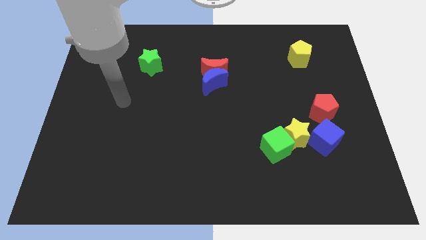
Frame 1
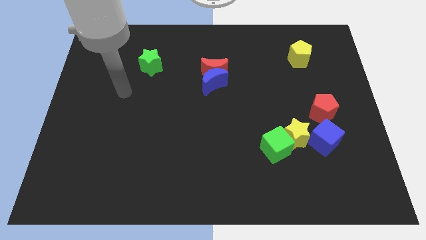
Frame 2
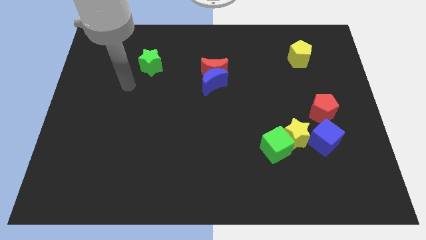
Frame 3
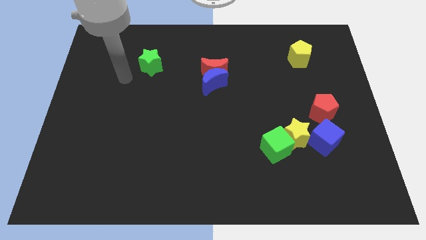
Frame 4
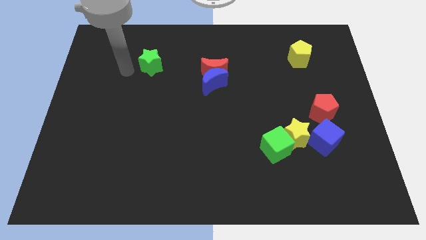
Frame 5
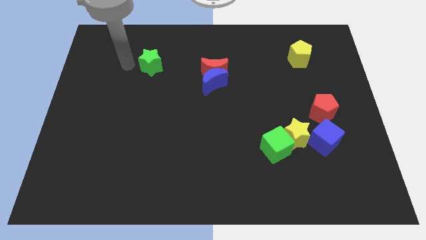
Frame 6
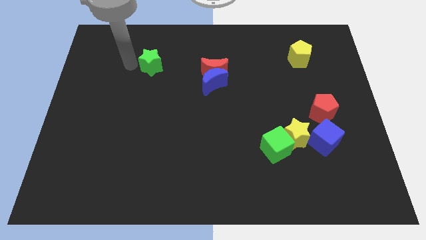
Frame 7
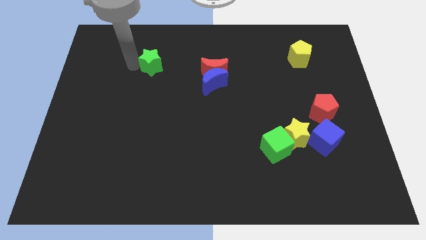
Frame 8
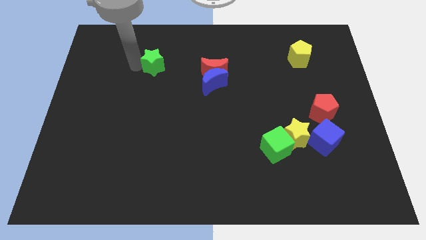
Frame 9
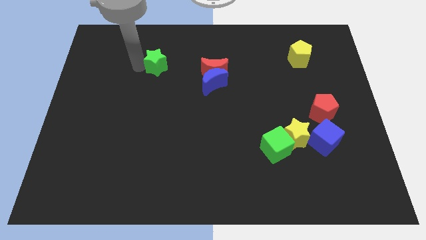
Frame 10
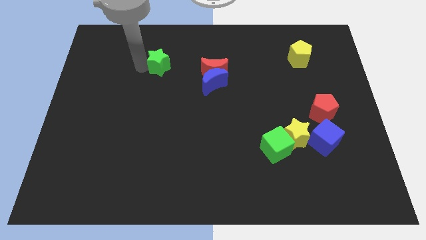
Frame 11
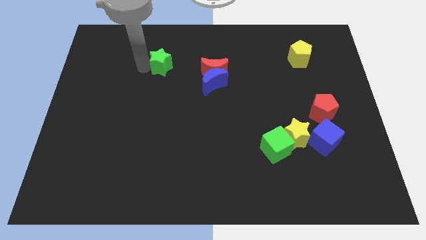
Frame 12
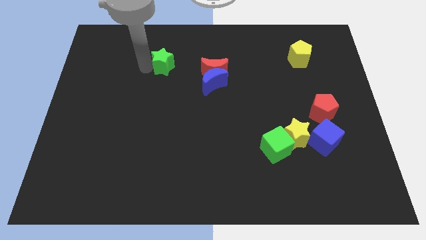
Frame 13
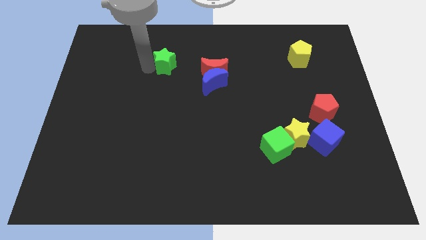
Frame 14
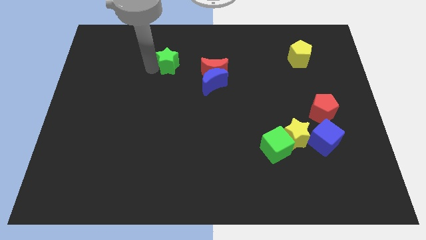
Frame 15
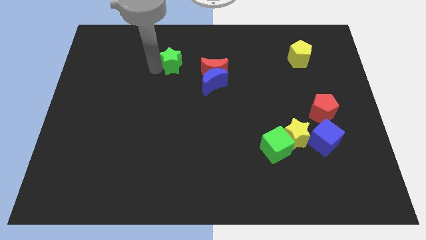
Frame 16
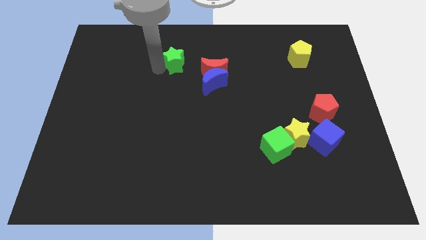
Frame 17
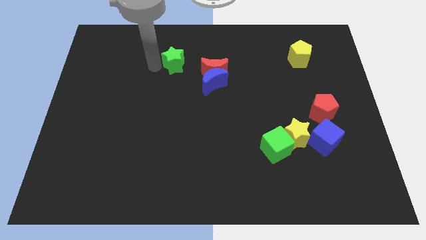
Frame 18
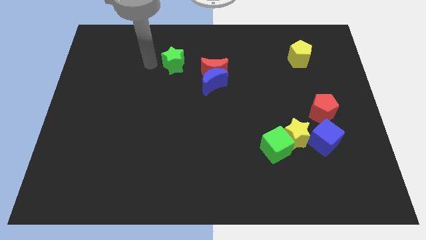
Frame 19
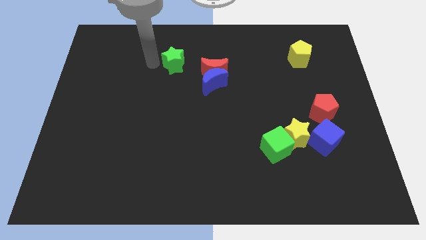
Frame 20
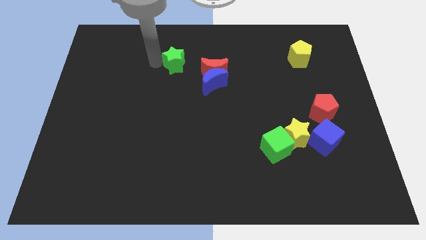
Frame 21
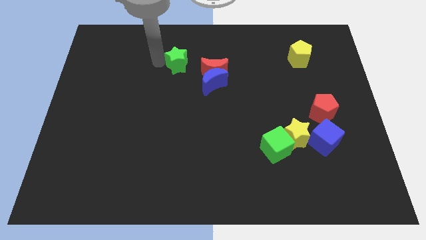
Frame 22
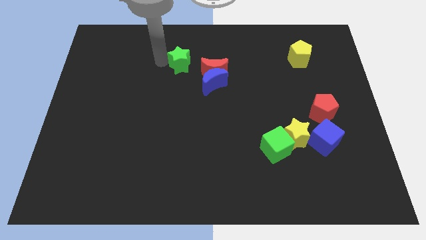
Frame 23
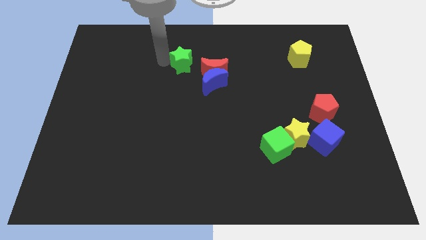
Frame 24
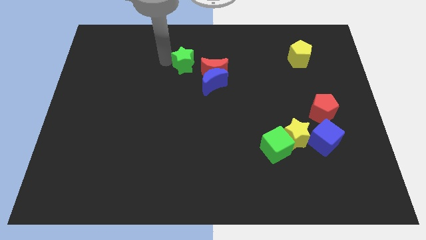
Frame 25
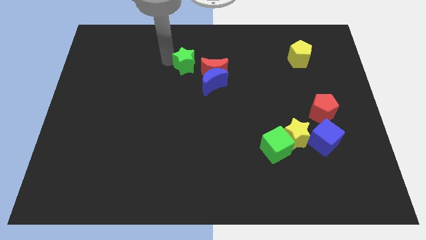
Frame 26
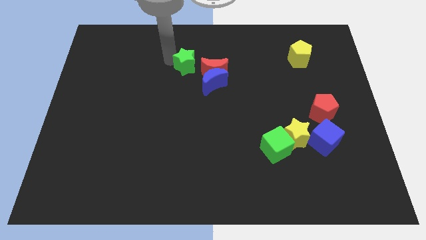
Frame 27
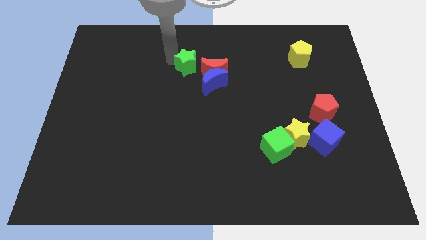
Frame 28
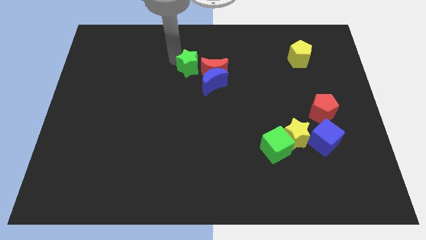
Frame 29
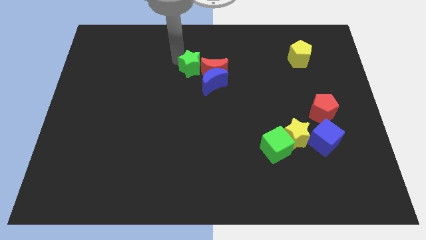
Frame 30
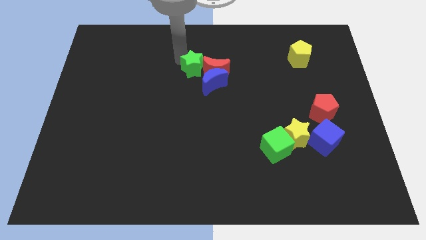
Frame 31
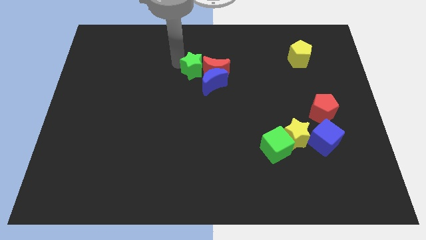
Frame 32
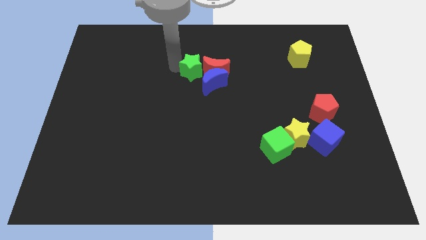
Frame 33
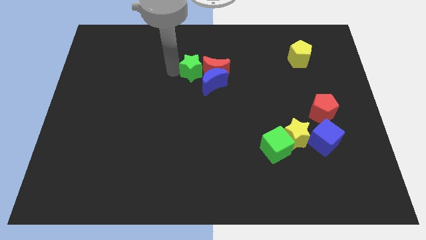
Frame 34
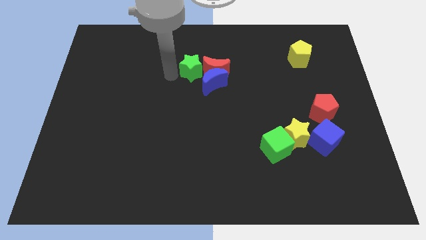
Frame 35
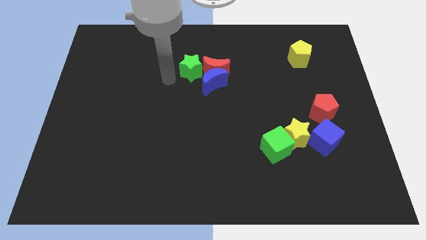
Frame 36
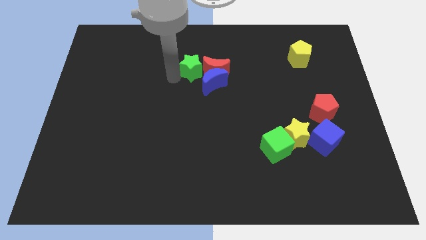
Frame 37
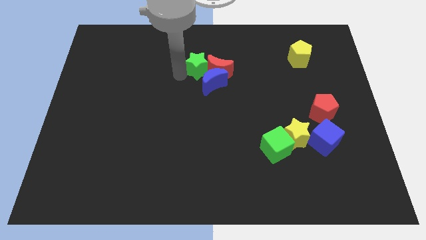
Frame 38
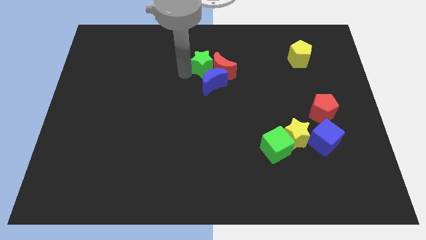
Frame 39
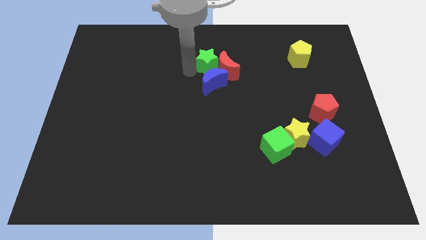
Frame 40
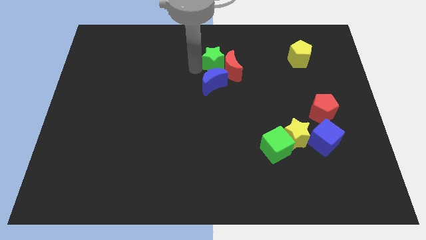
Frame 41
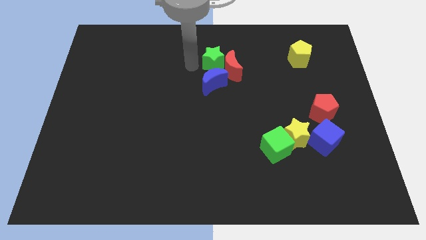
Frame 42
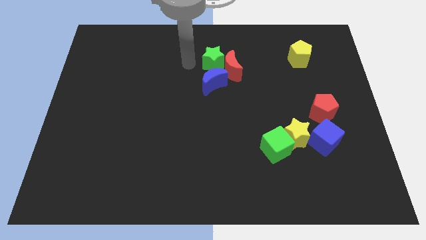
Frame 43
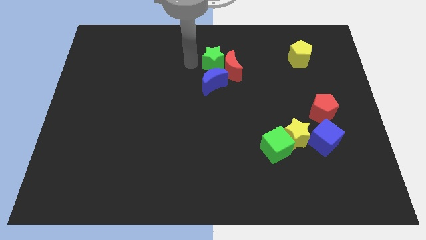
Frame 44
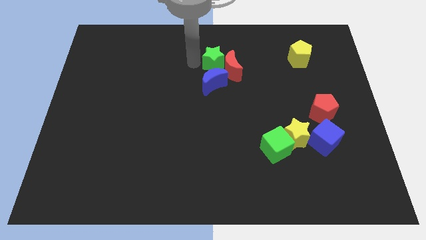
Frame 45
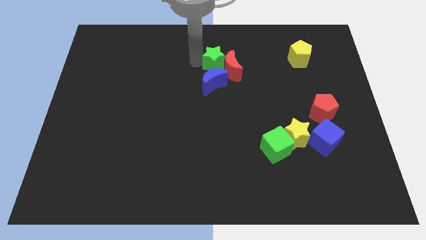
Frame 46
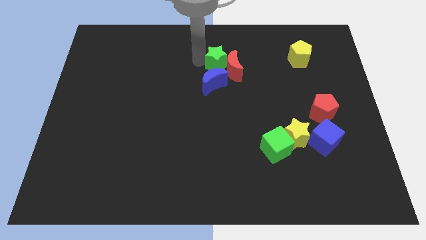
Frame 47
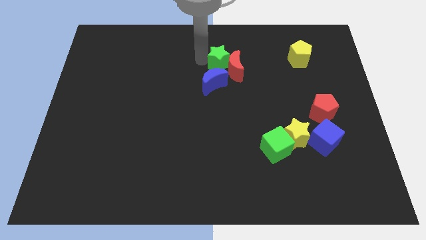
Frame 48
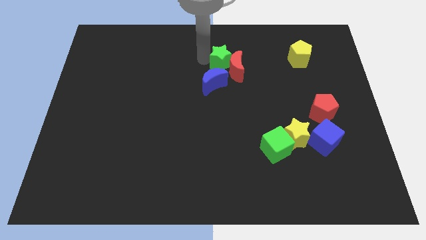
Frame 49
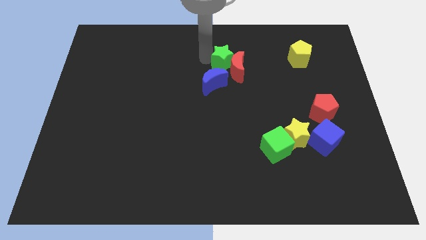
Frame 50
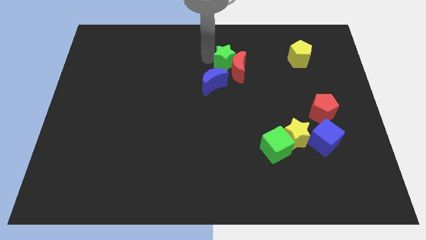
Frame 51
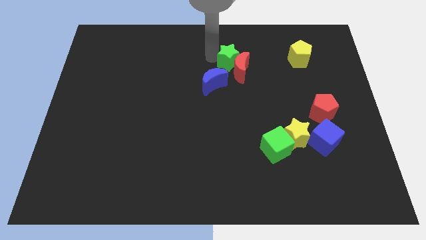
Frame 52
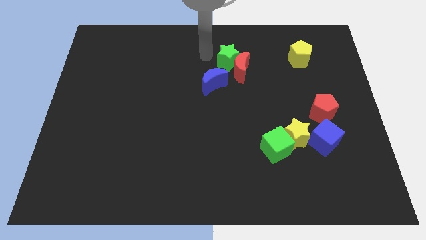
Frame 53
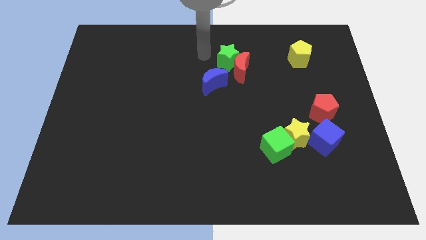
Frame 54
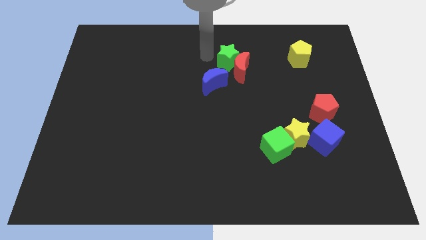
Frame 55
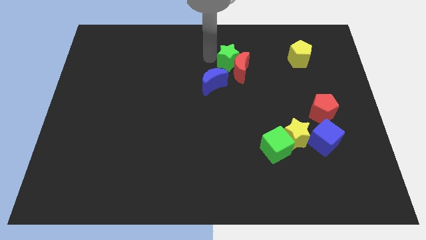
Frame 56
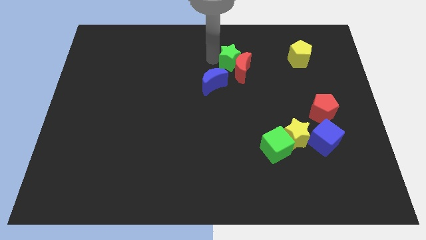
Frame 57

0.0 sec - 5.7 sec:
slide the green star to the right

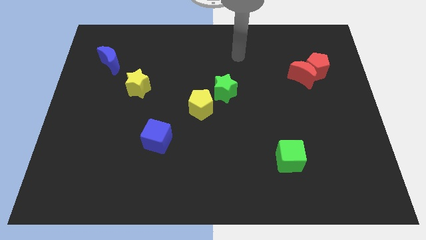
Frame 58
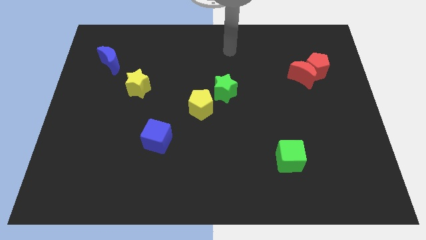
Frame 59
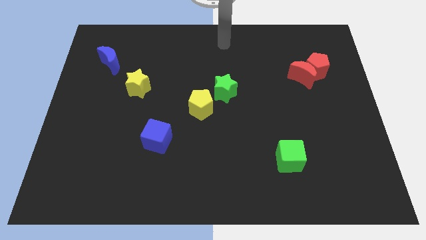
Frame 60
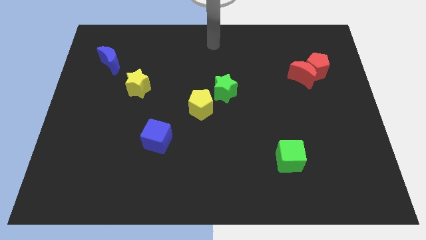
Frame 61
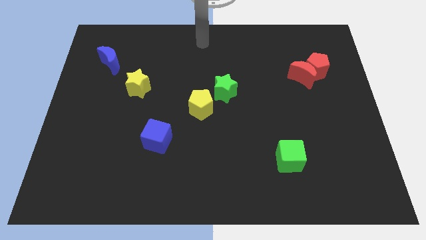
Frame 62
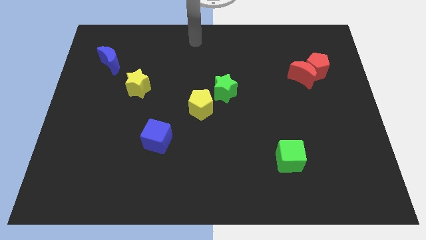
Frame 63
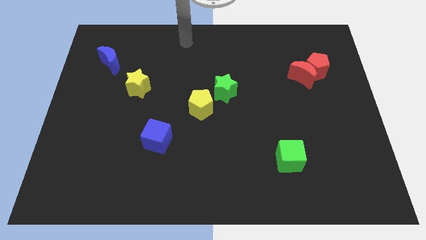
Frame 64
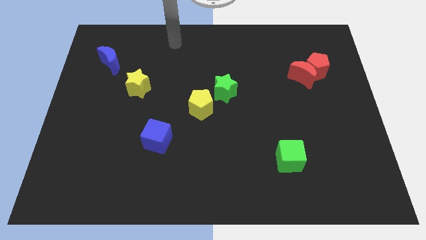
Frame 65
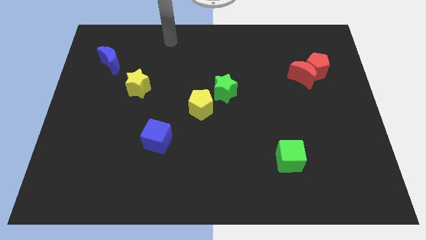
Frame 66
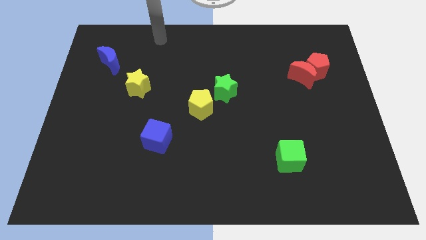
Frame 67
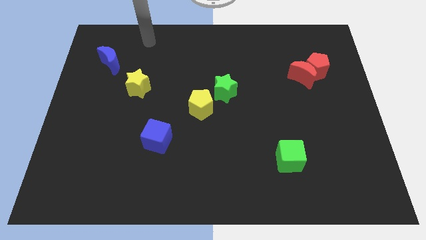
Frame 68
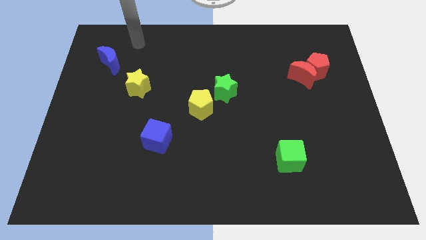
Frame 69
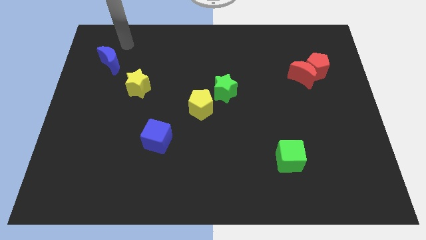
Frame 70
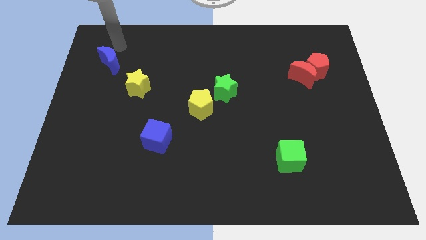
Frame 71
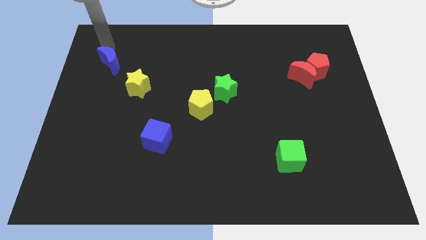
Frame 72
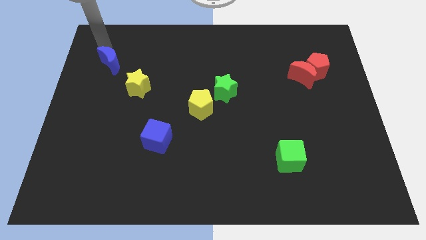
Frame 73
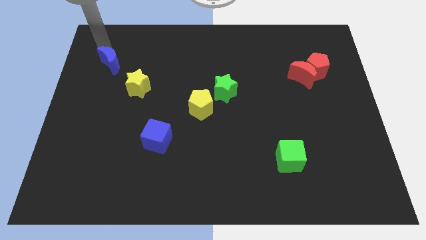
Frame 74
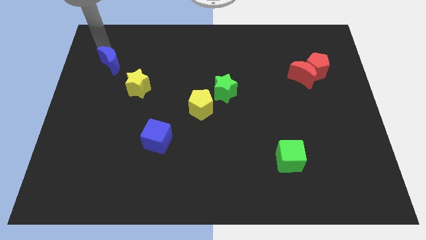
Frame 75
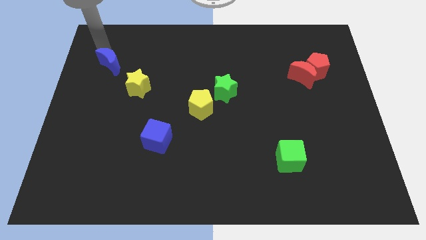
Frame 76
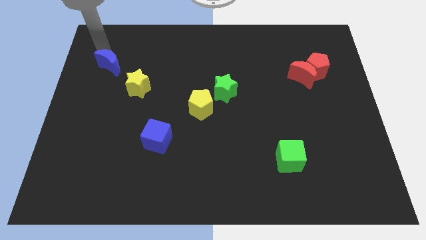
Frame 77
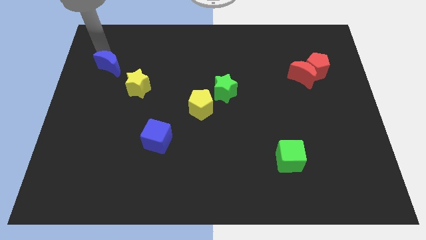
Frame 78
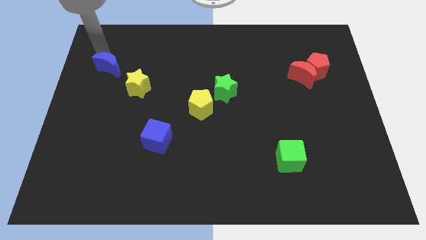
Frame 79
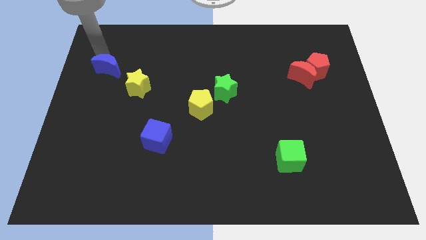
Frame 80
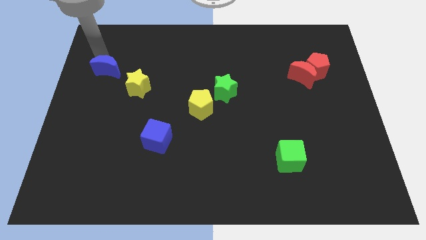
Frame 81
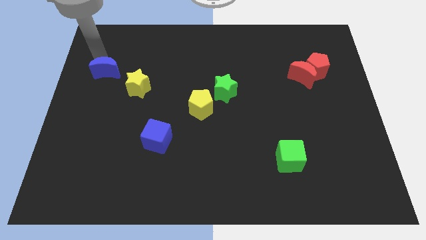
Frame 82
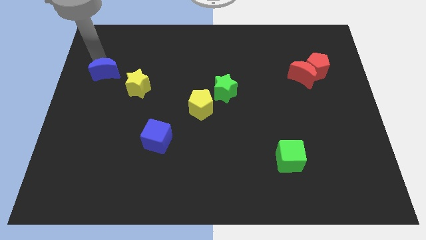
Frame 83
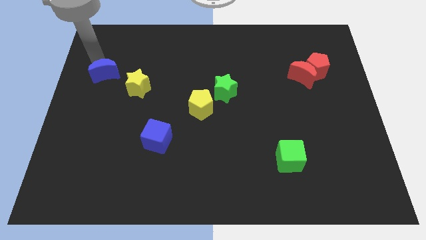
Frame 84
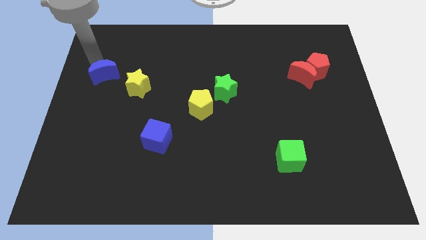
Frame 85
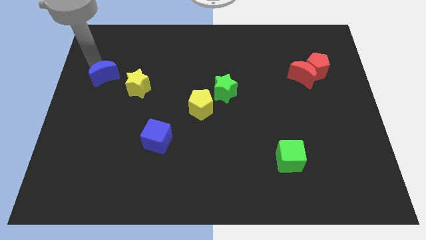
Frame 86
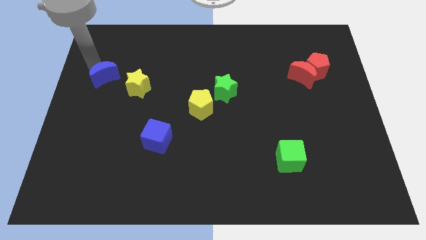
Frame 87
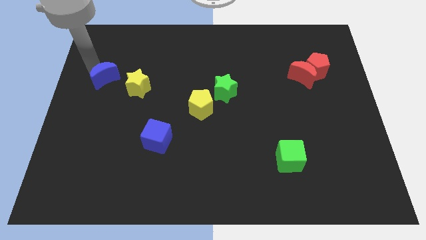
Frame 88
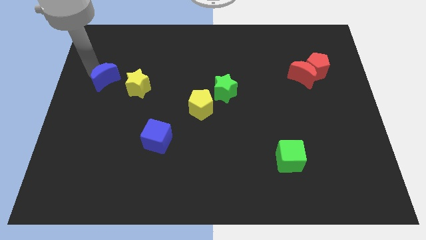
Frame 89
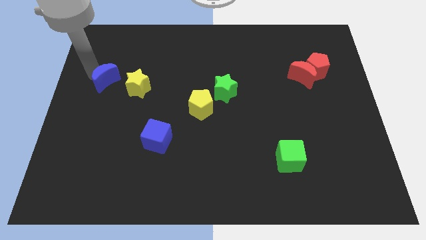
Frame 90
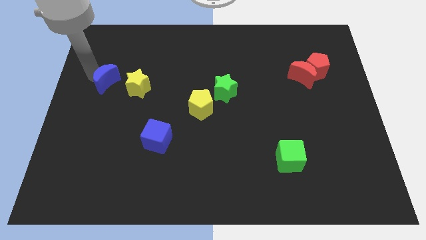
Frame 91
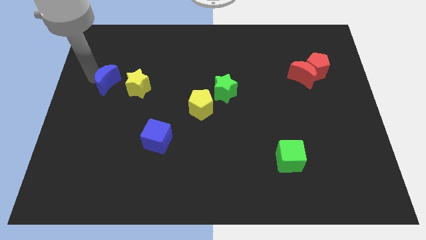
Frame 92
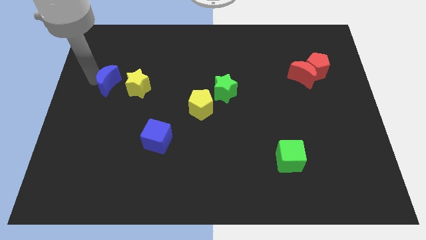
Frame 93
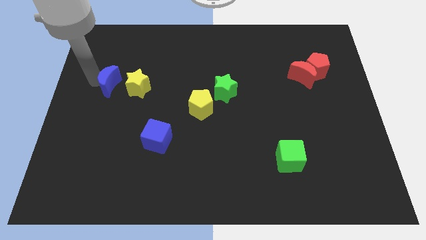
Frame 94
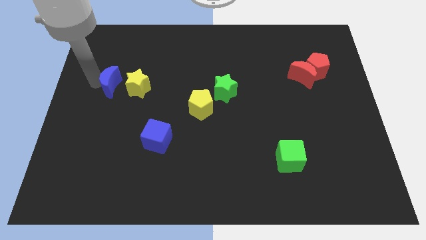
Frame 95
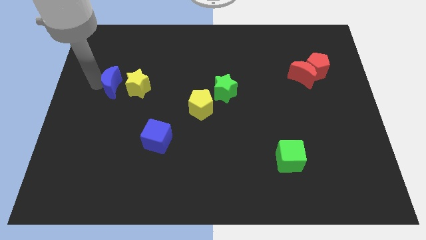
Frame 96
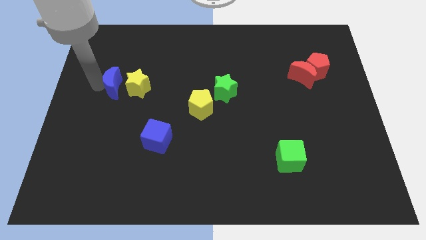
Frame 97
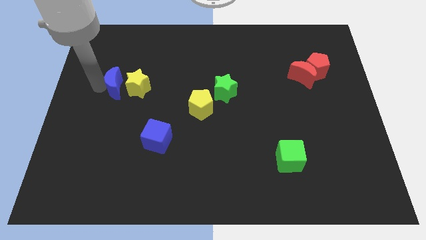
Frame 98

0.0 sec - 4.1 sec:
slide the blue moon a bit down and right diagonally
